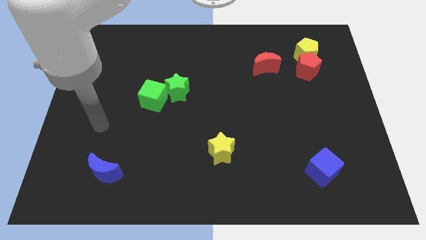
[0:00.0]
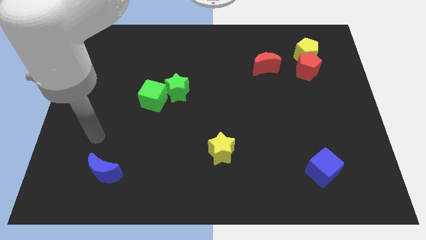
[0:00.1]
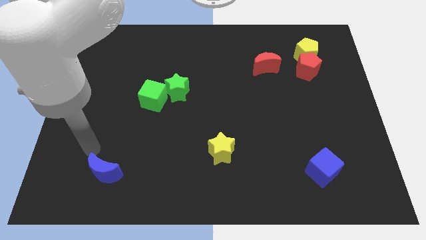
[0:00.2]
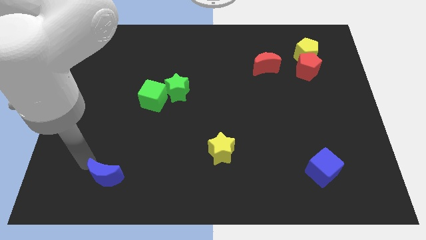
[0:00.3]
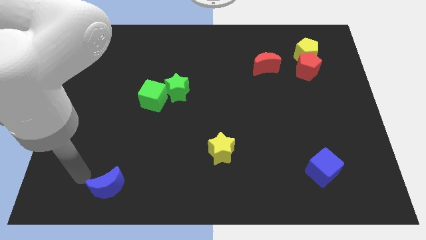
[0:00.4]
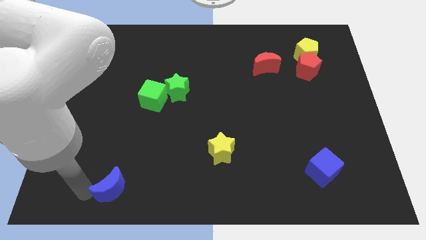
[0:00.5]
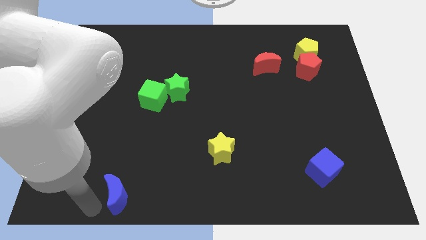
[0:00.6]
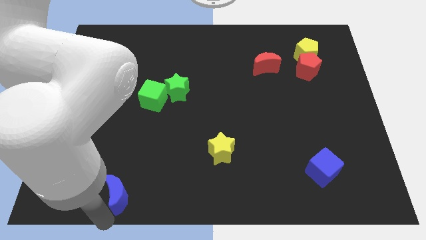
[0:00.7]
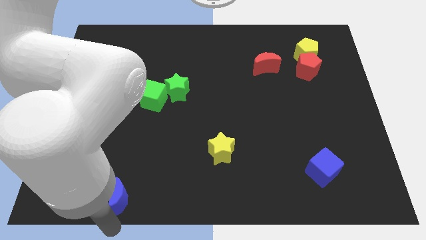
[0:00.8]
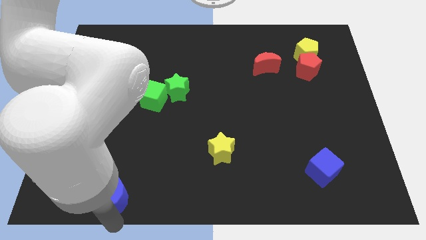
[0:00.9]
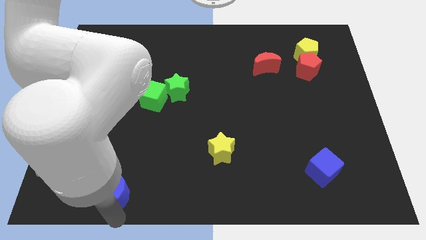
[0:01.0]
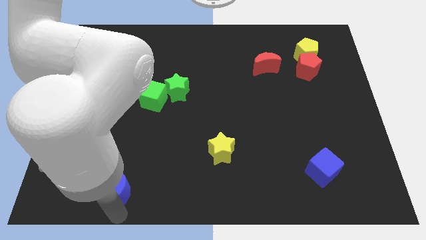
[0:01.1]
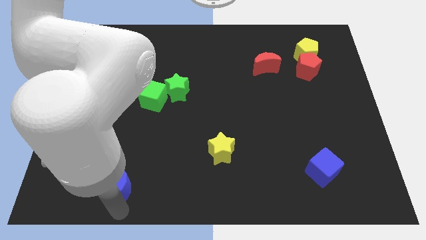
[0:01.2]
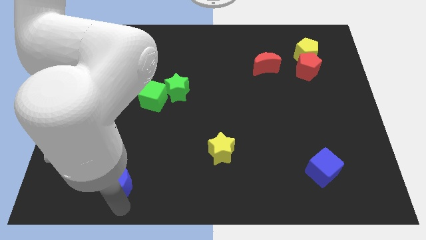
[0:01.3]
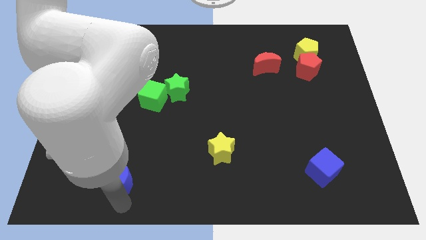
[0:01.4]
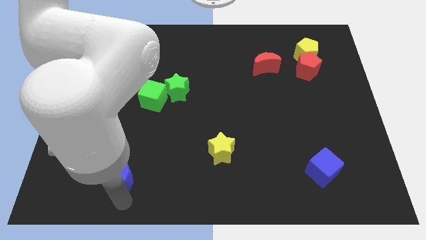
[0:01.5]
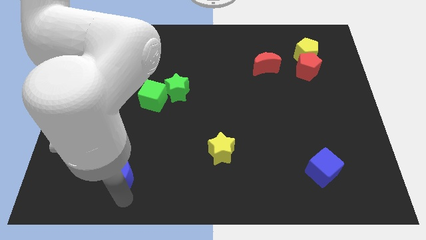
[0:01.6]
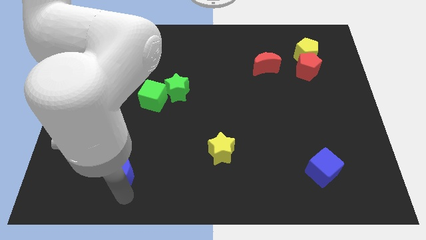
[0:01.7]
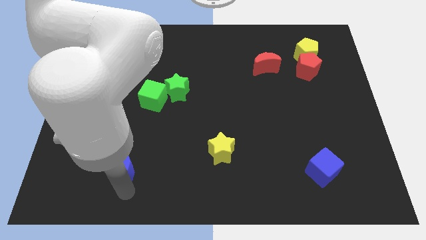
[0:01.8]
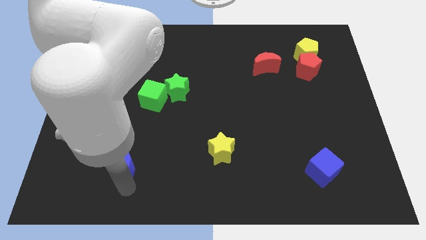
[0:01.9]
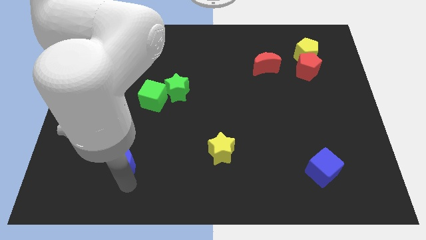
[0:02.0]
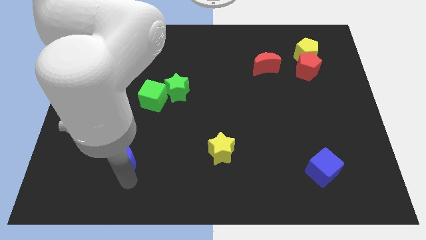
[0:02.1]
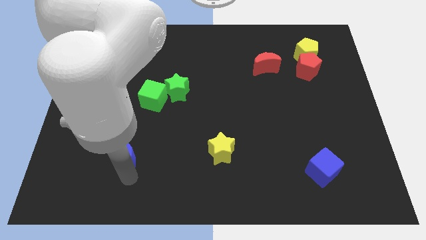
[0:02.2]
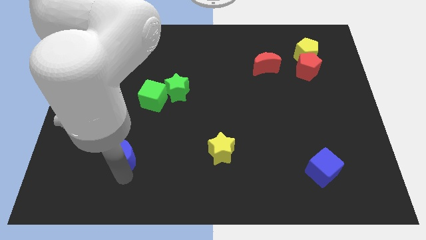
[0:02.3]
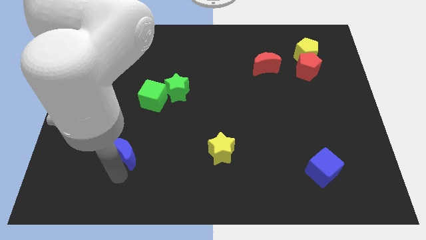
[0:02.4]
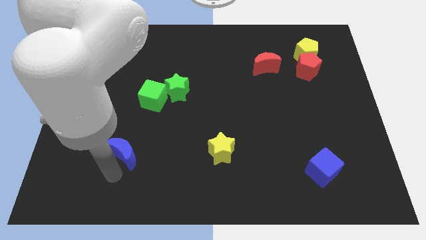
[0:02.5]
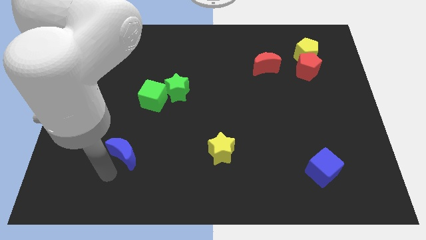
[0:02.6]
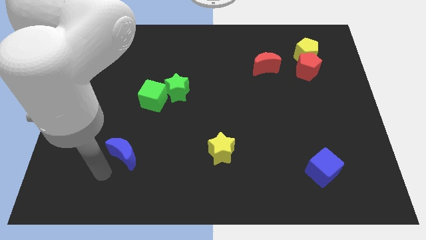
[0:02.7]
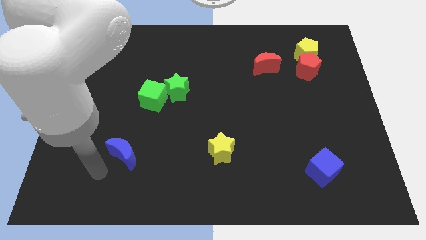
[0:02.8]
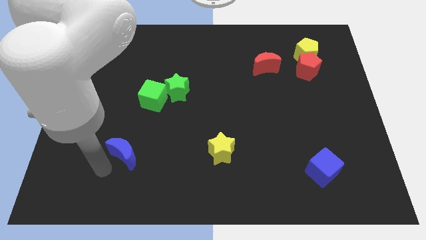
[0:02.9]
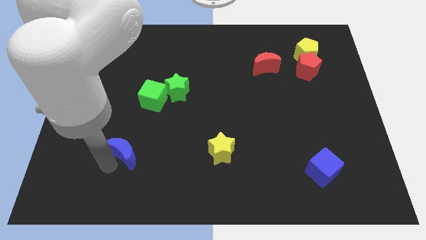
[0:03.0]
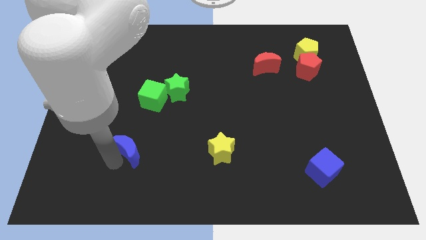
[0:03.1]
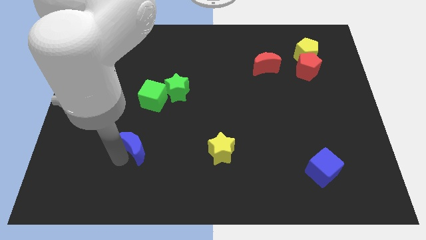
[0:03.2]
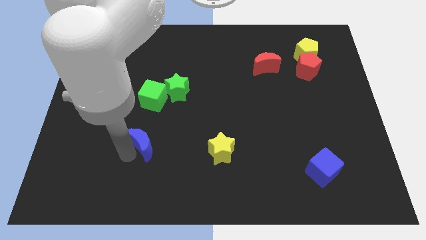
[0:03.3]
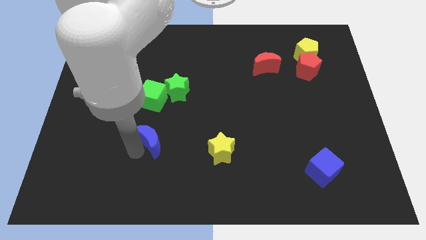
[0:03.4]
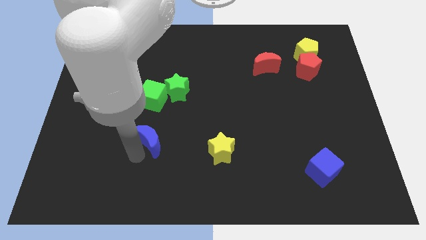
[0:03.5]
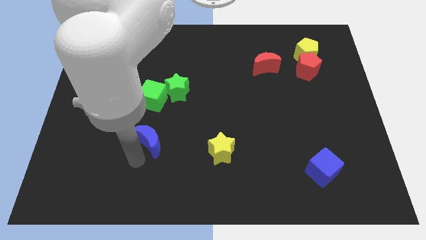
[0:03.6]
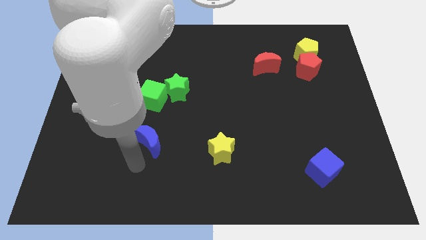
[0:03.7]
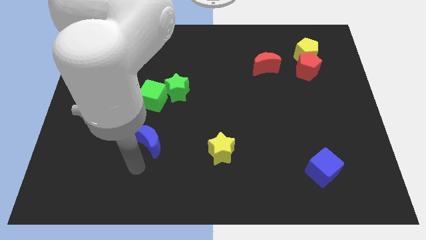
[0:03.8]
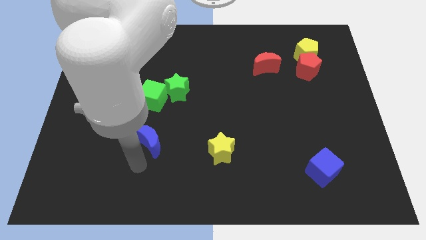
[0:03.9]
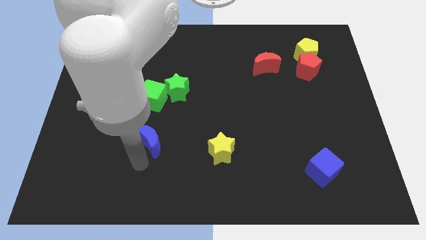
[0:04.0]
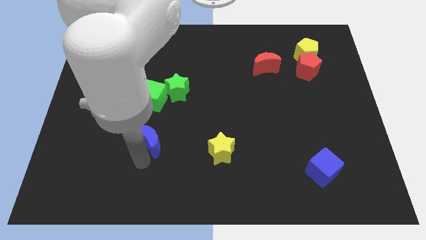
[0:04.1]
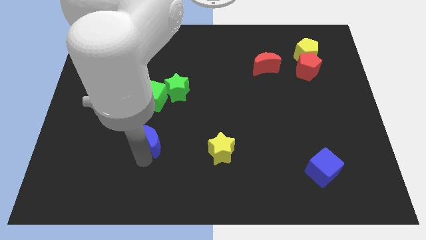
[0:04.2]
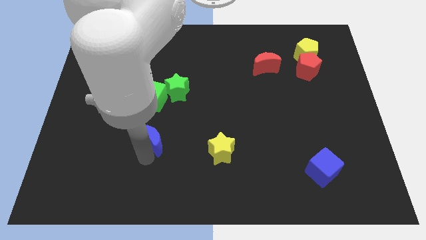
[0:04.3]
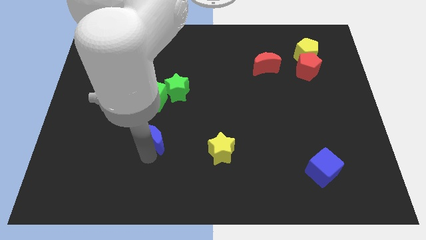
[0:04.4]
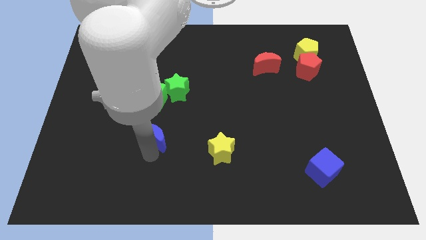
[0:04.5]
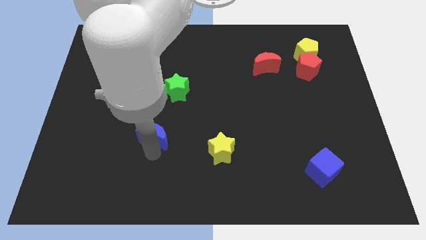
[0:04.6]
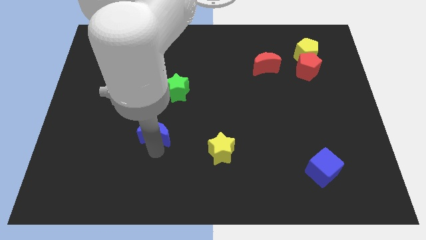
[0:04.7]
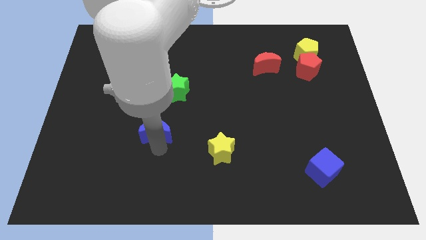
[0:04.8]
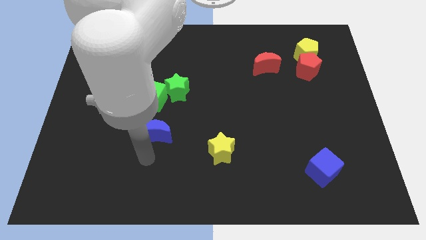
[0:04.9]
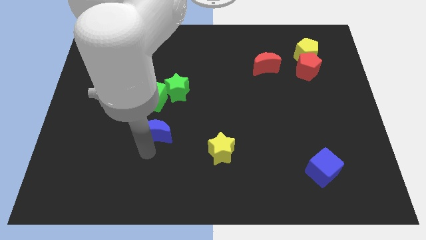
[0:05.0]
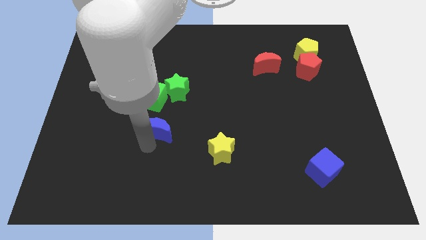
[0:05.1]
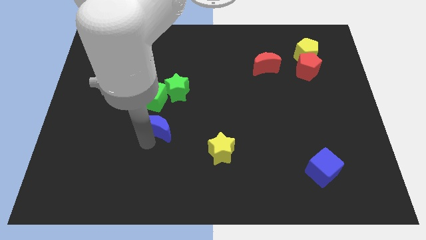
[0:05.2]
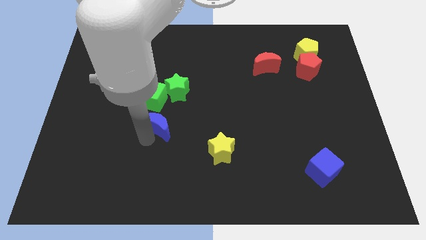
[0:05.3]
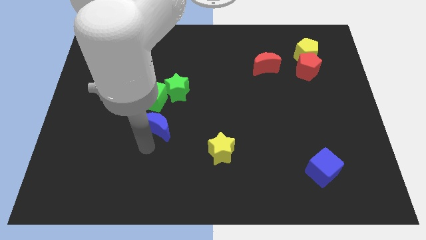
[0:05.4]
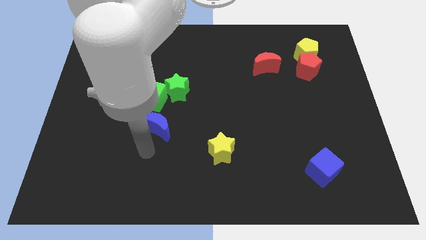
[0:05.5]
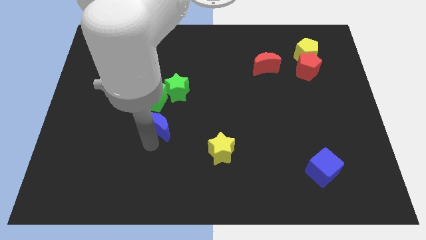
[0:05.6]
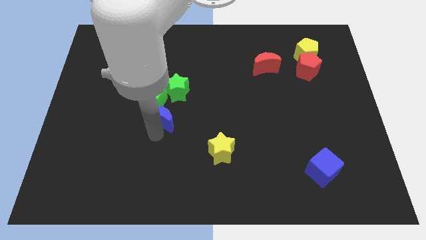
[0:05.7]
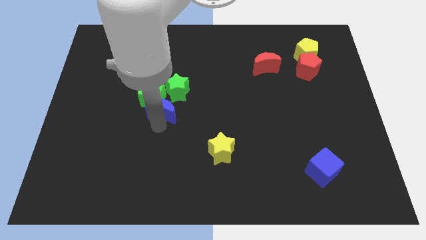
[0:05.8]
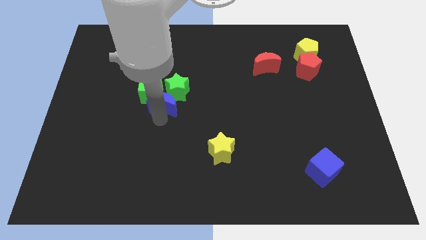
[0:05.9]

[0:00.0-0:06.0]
put the blue moon close to the green star
